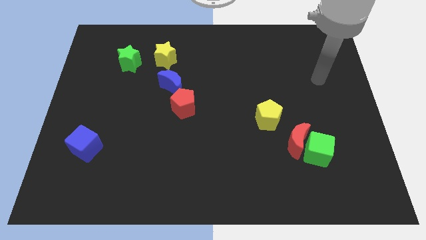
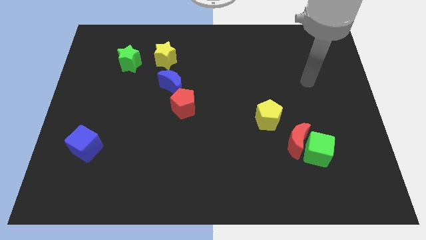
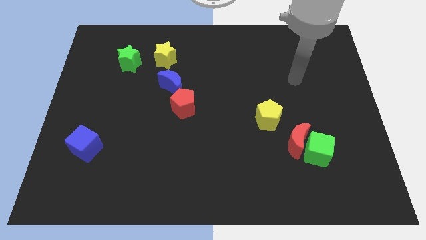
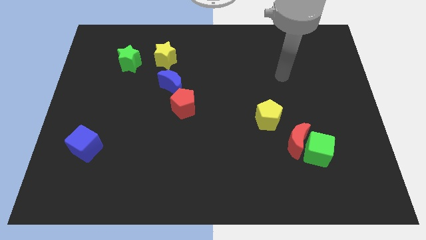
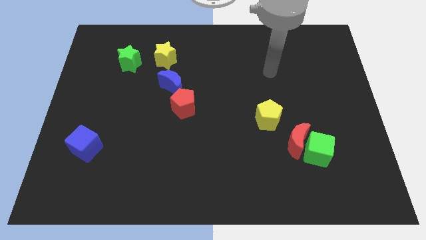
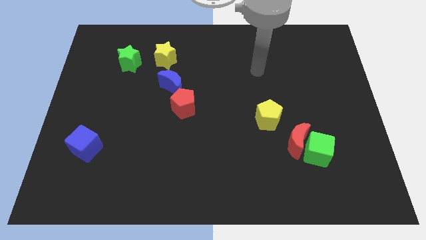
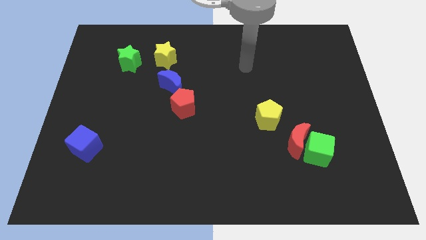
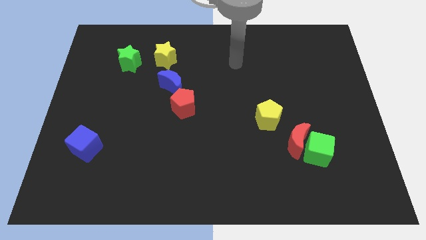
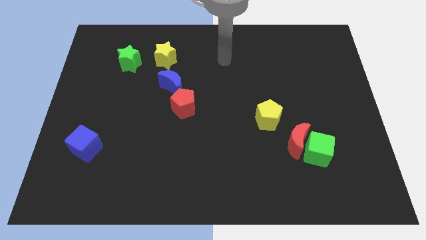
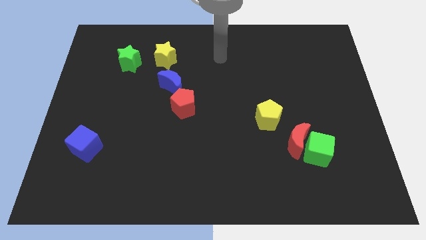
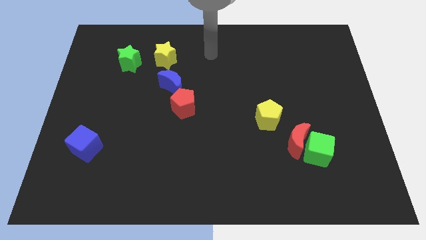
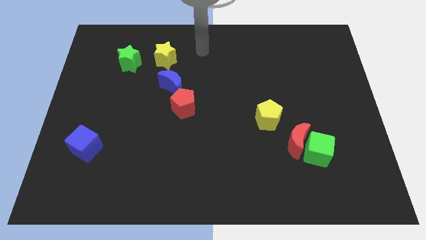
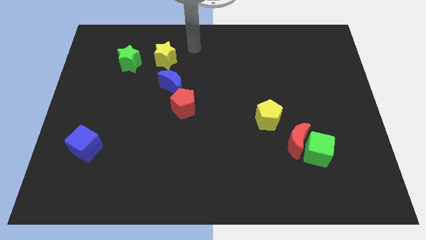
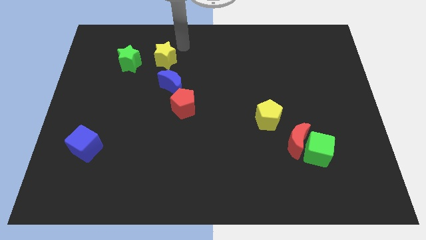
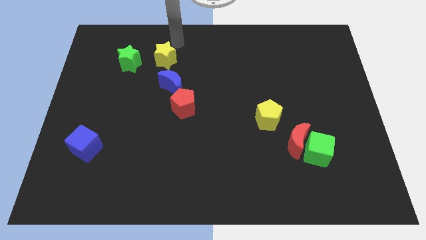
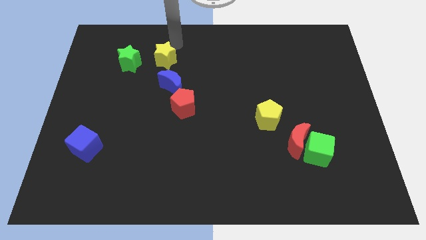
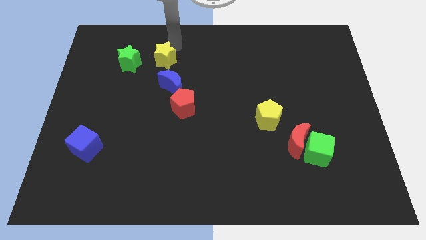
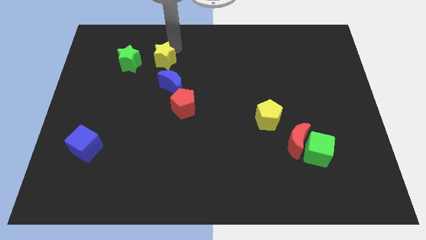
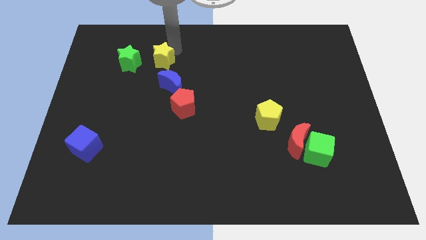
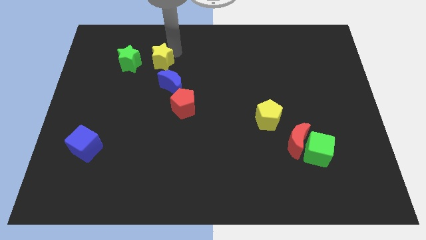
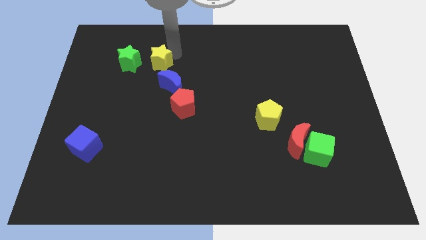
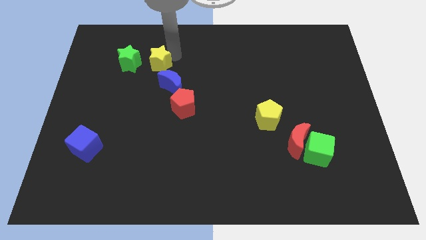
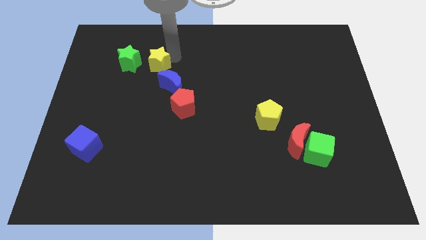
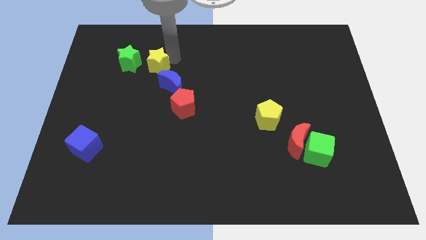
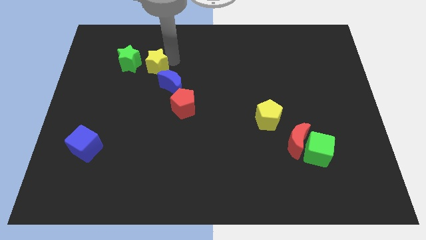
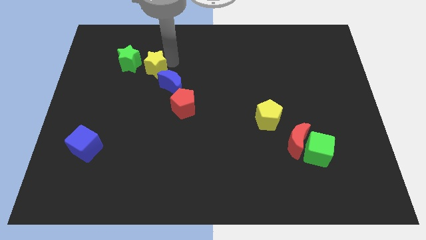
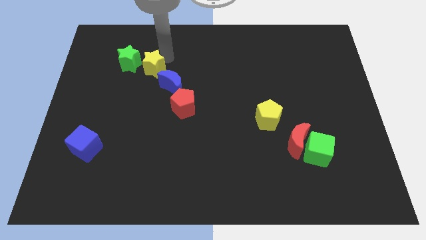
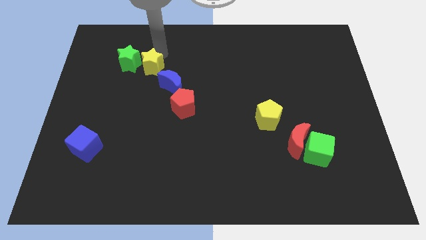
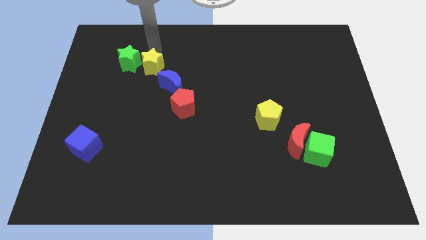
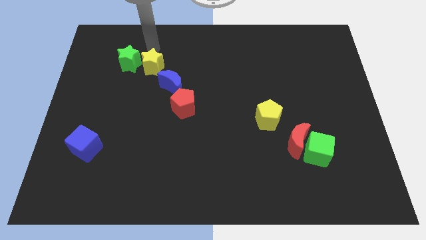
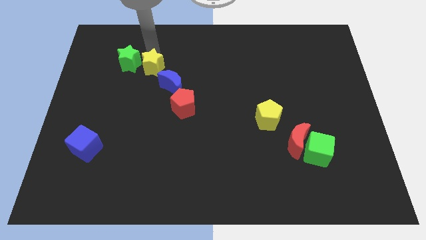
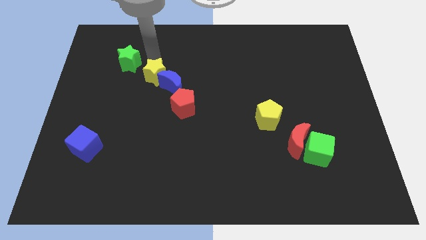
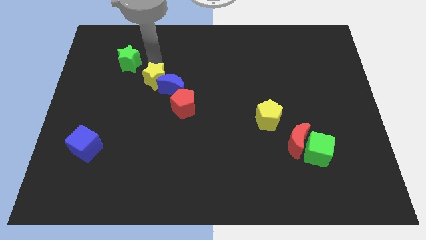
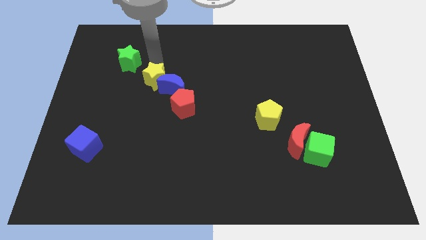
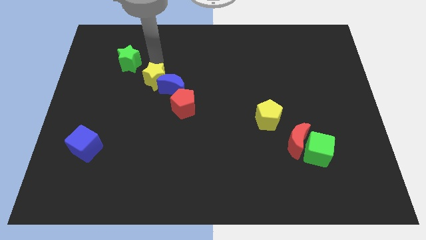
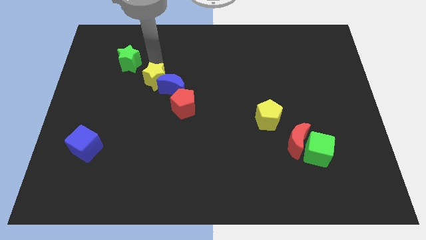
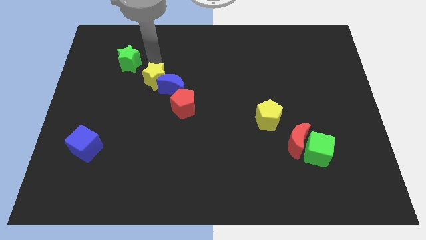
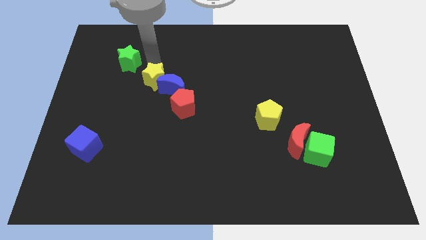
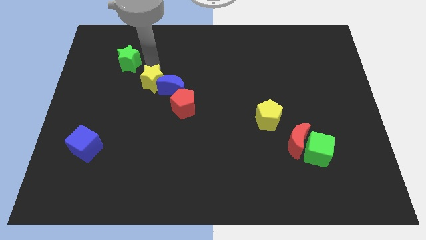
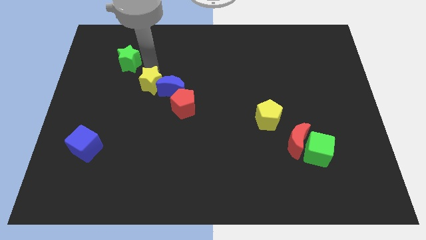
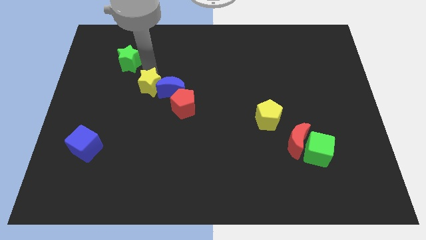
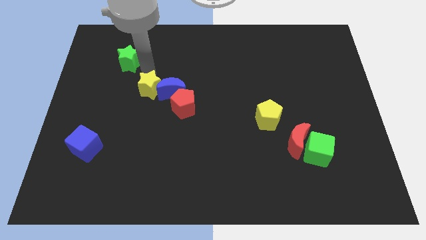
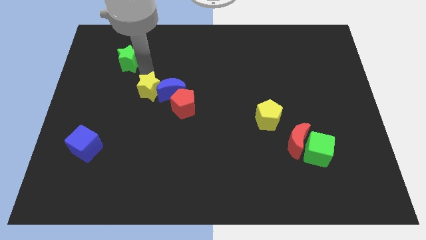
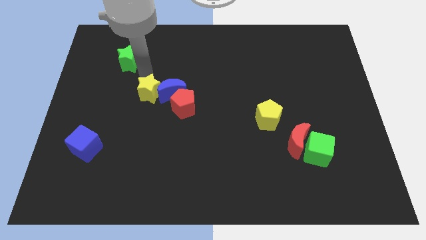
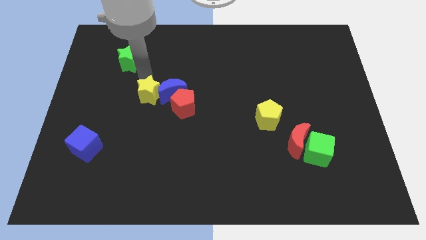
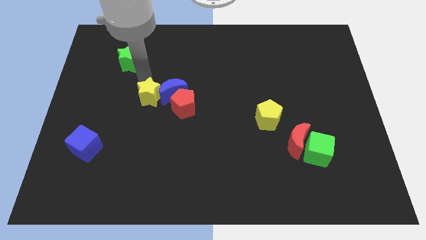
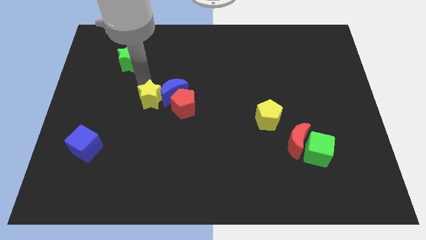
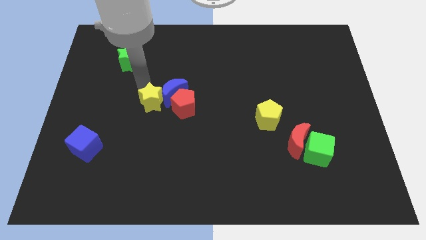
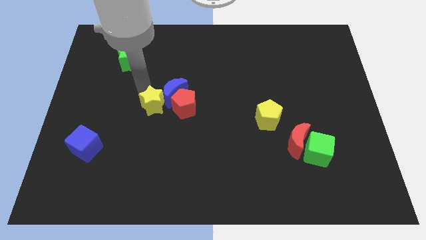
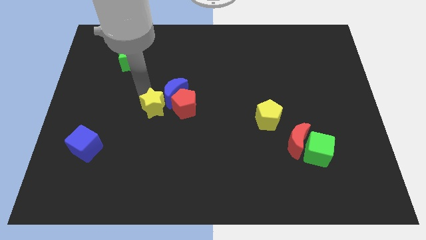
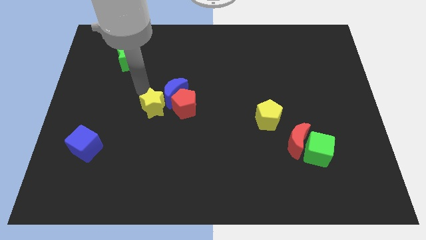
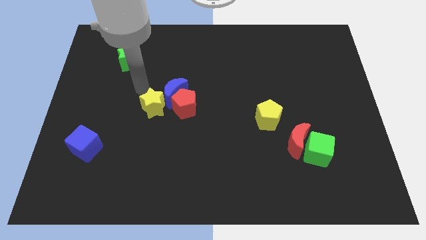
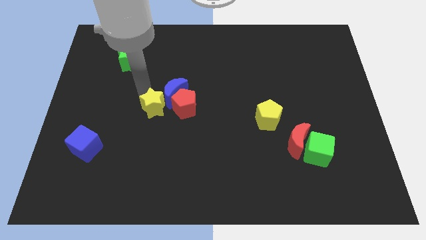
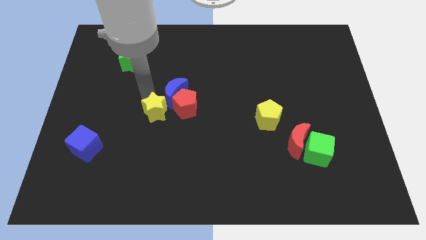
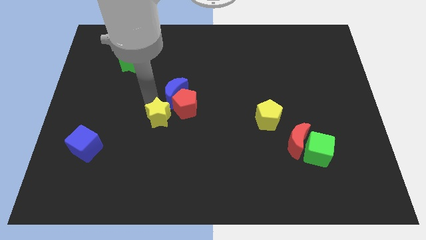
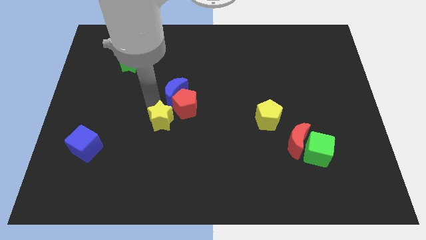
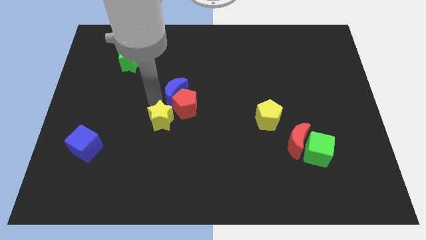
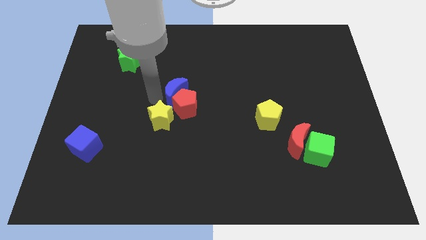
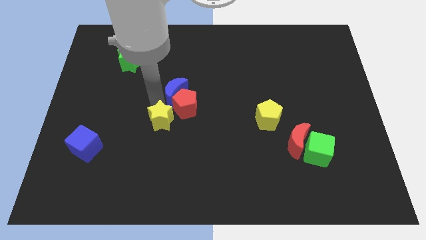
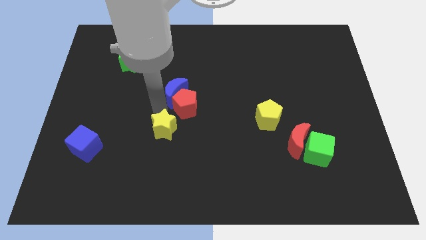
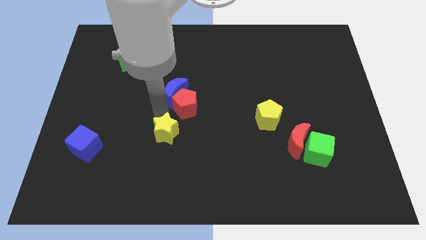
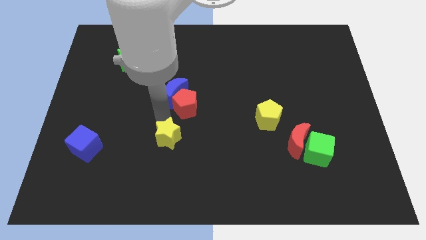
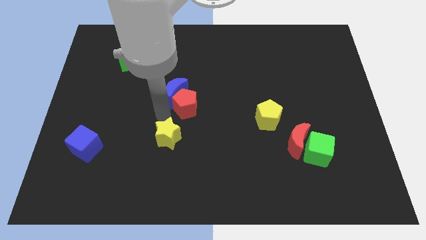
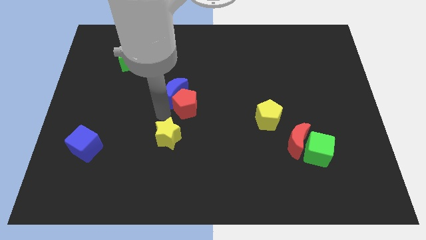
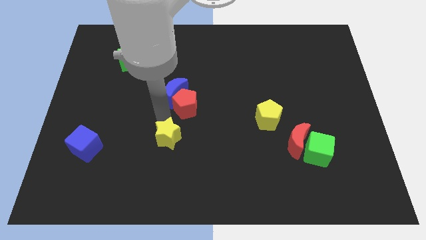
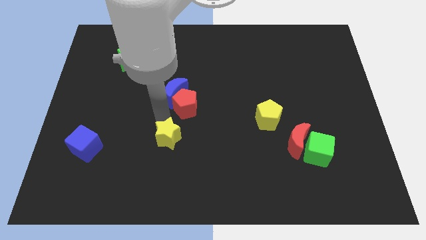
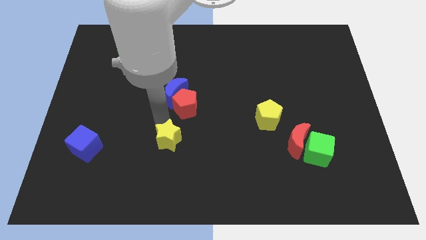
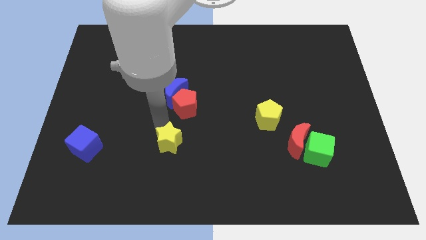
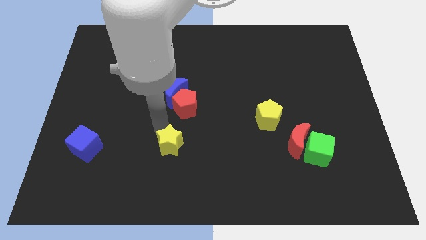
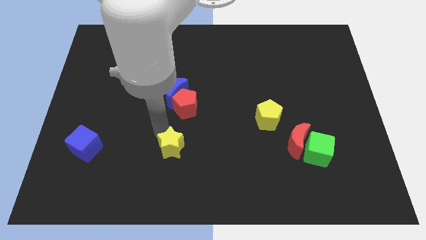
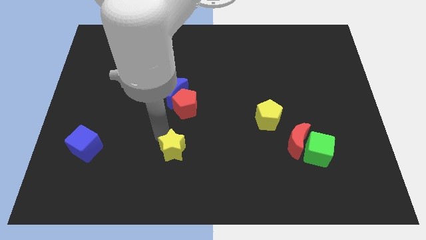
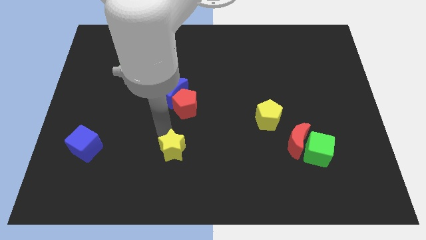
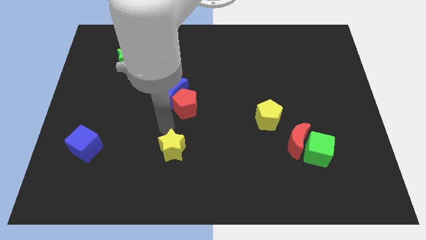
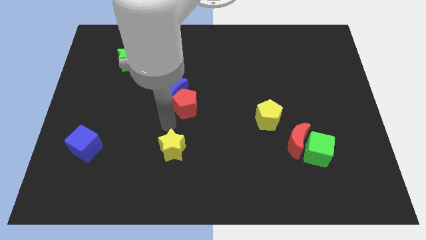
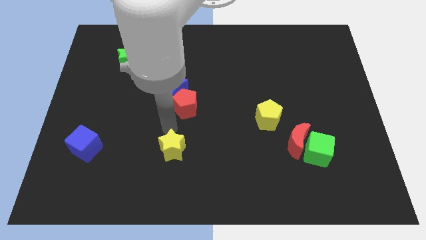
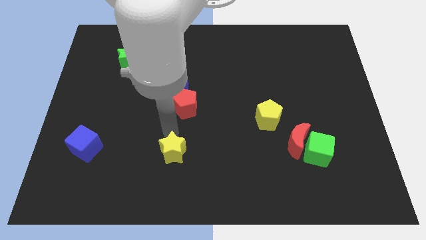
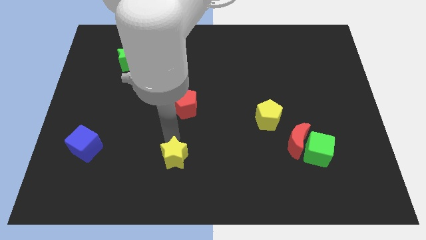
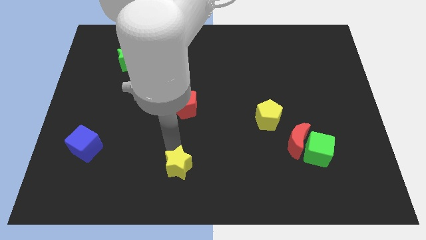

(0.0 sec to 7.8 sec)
push the yellow star to the bottom side
